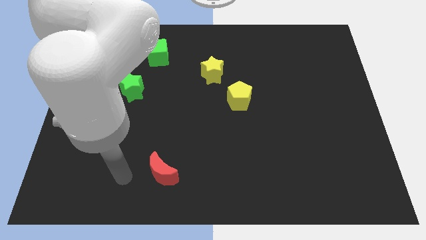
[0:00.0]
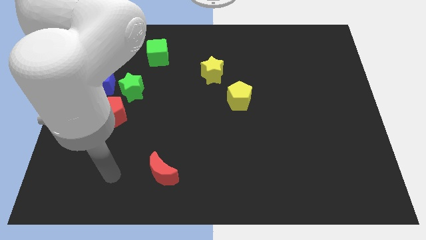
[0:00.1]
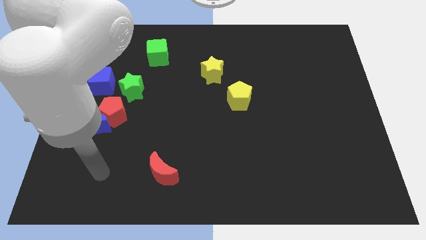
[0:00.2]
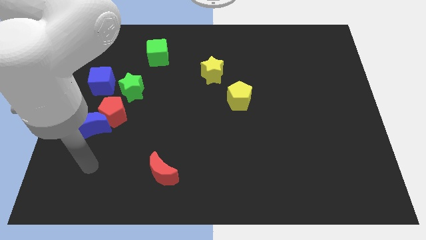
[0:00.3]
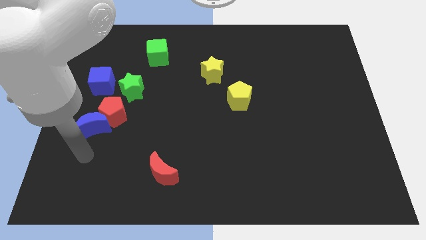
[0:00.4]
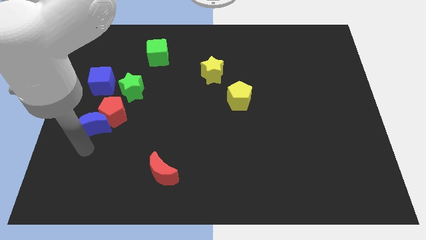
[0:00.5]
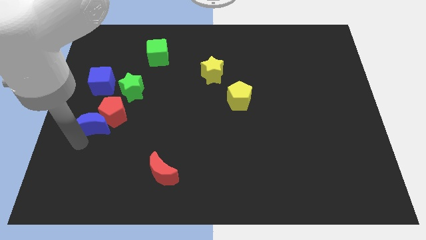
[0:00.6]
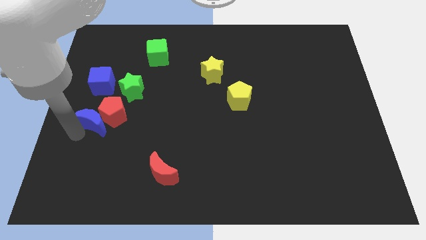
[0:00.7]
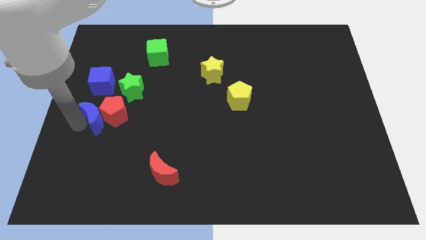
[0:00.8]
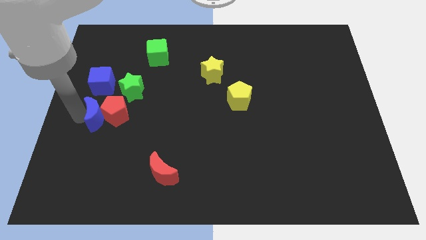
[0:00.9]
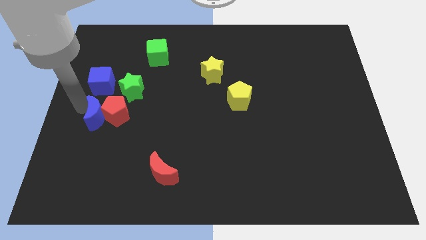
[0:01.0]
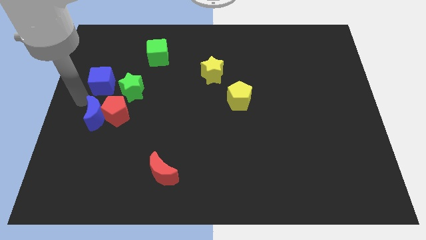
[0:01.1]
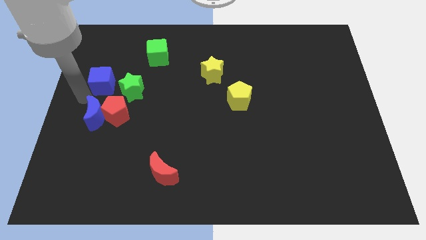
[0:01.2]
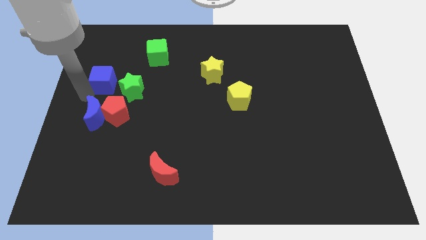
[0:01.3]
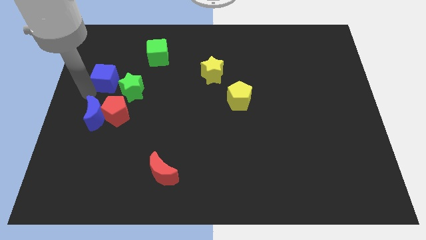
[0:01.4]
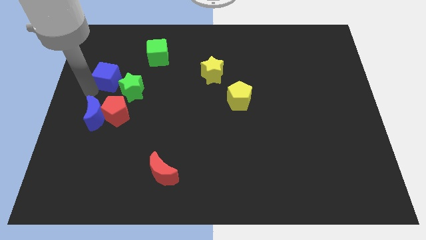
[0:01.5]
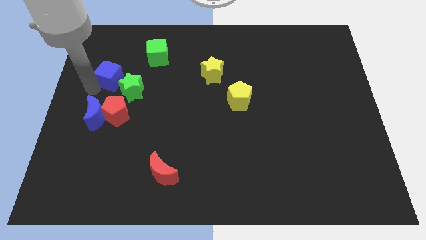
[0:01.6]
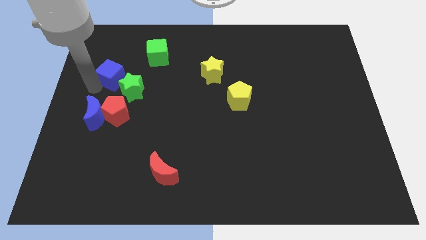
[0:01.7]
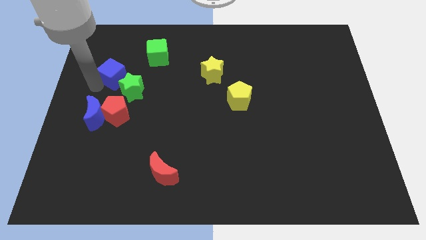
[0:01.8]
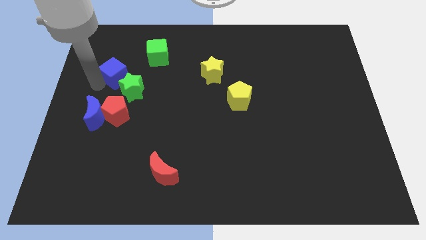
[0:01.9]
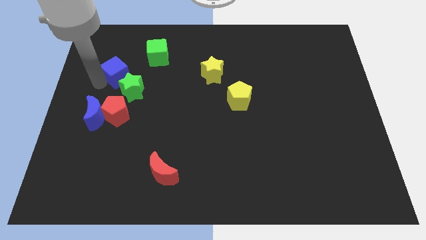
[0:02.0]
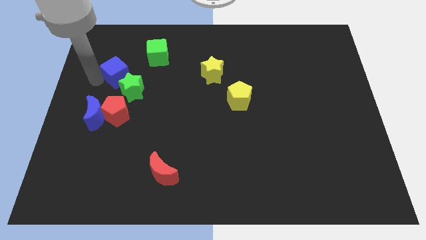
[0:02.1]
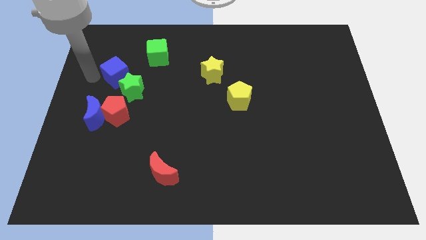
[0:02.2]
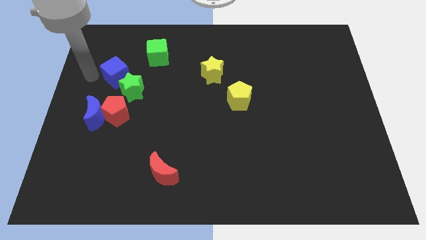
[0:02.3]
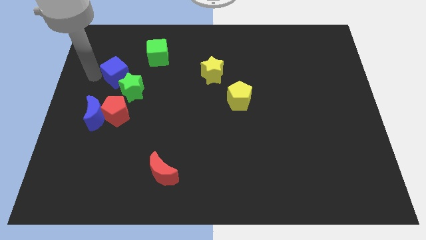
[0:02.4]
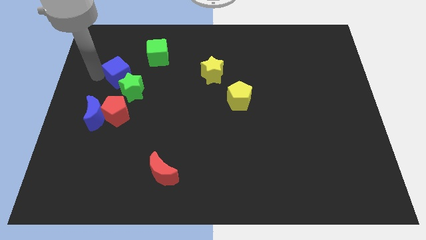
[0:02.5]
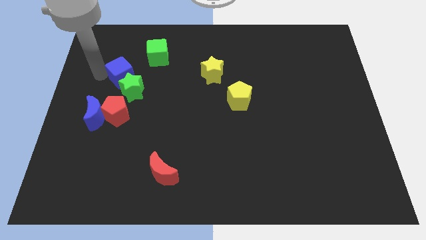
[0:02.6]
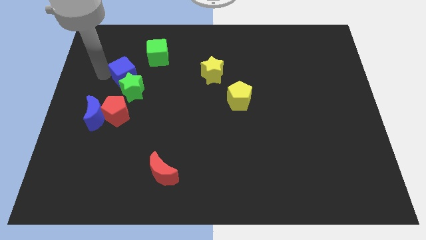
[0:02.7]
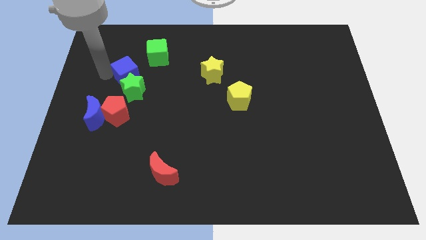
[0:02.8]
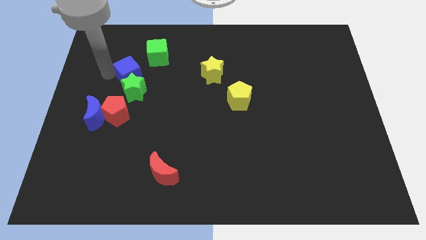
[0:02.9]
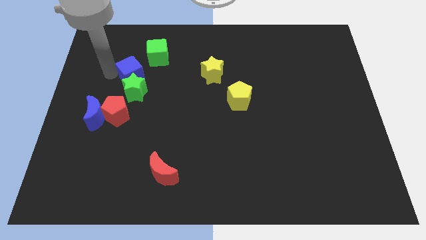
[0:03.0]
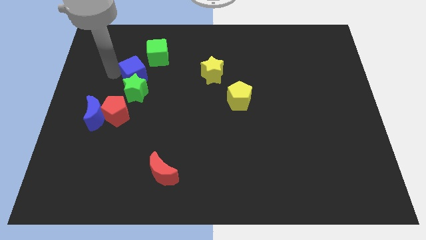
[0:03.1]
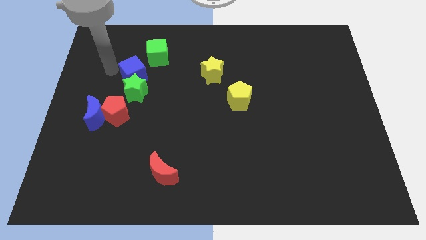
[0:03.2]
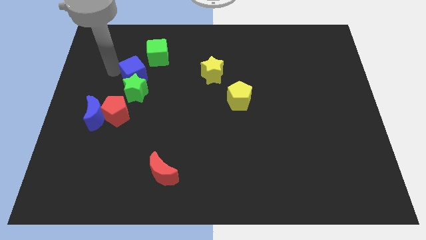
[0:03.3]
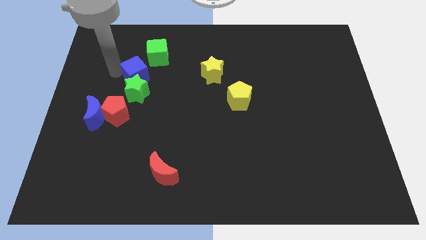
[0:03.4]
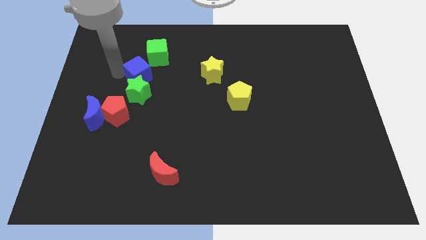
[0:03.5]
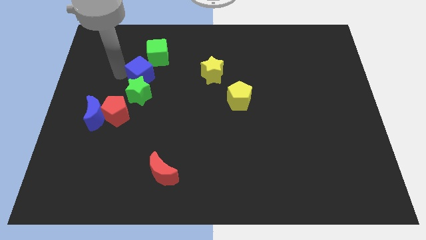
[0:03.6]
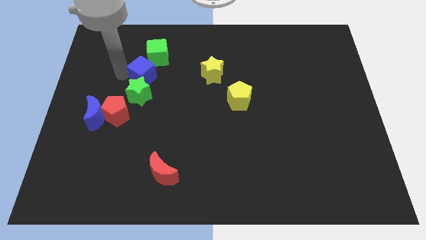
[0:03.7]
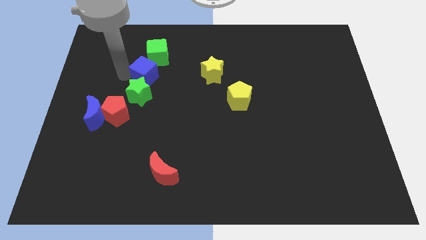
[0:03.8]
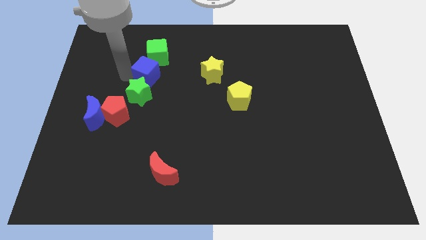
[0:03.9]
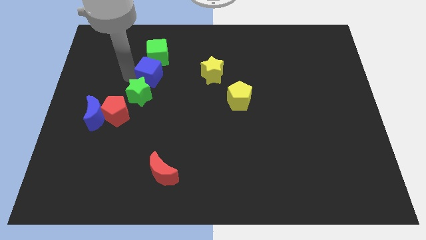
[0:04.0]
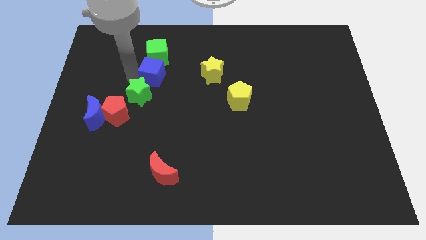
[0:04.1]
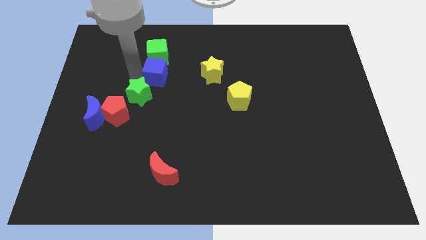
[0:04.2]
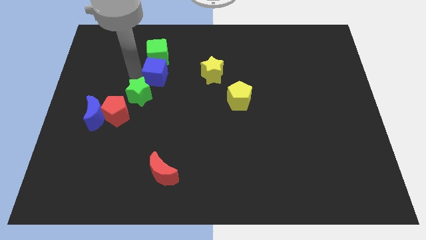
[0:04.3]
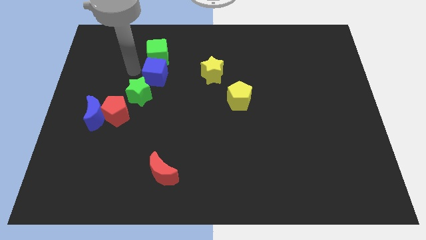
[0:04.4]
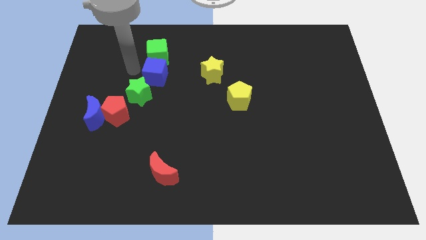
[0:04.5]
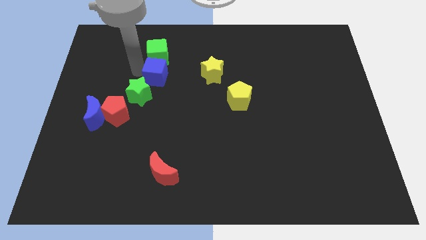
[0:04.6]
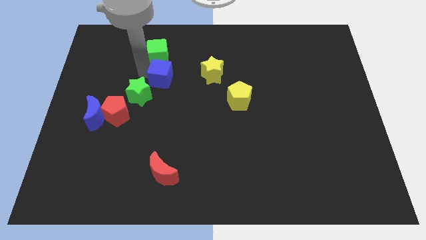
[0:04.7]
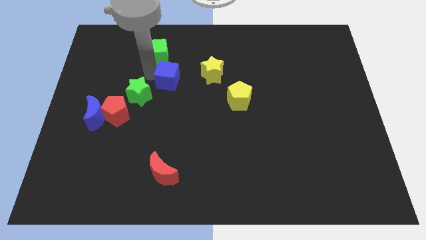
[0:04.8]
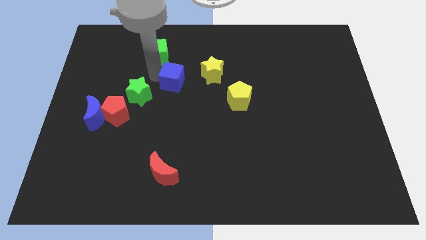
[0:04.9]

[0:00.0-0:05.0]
put the blue cube to the center

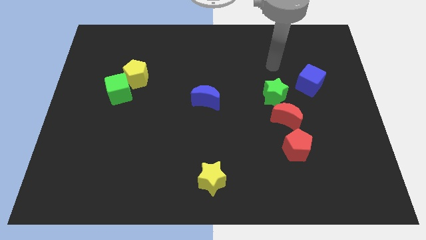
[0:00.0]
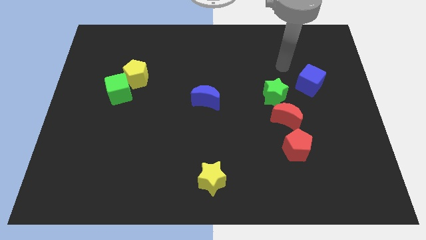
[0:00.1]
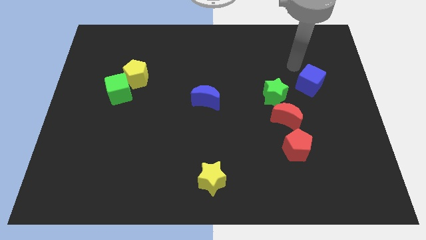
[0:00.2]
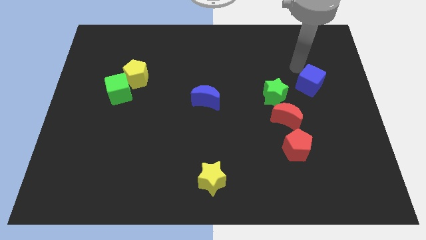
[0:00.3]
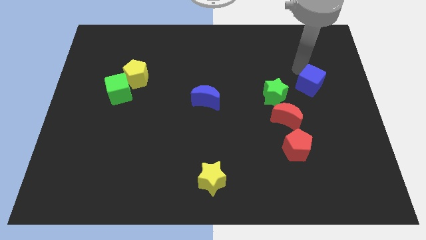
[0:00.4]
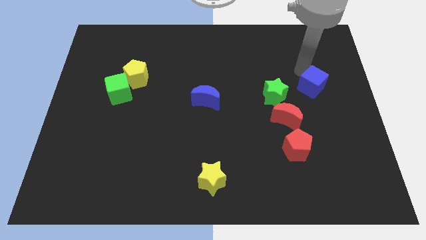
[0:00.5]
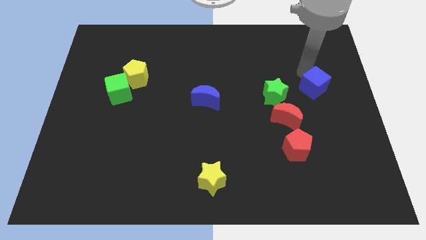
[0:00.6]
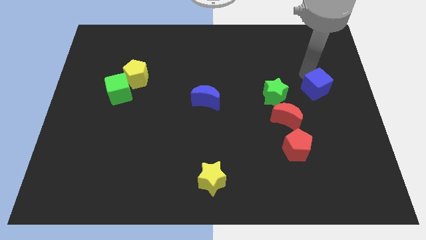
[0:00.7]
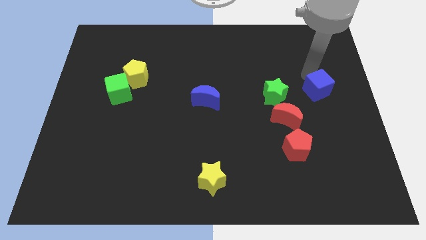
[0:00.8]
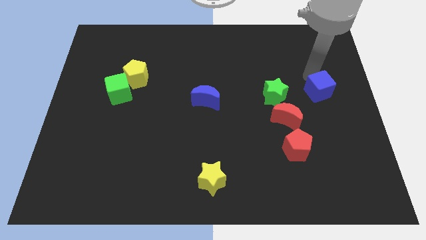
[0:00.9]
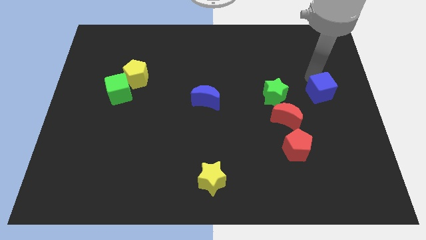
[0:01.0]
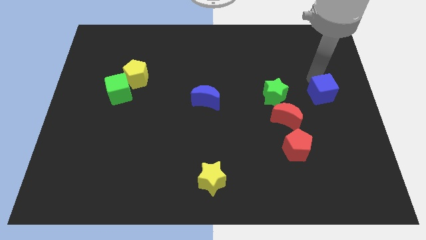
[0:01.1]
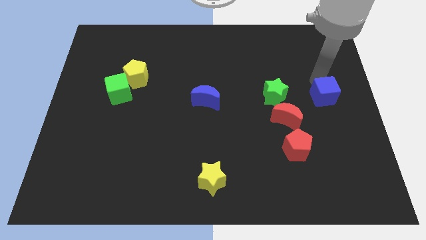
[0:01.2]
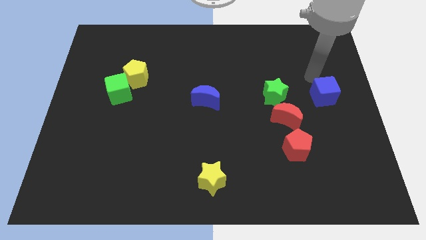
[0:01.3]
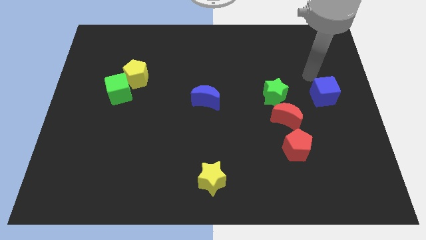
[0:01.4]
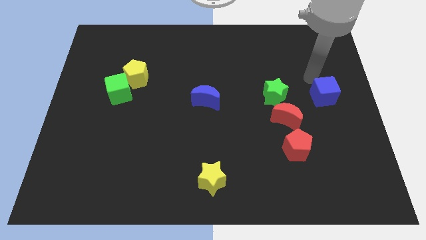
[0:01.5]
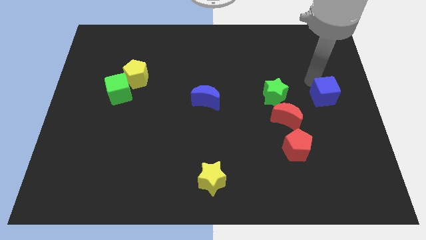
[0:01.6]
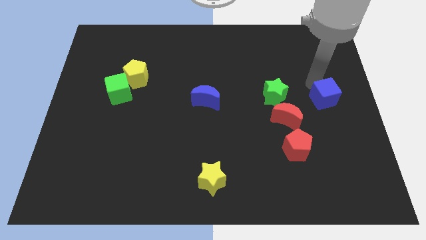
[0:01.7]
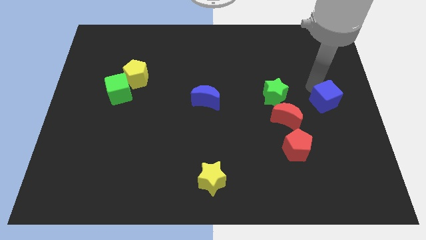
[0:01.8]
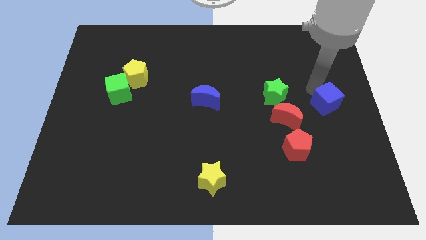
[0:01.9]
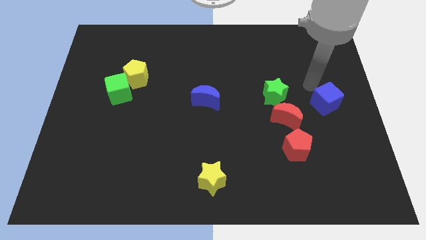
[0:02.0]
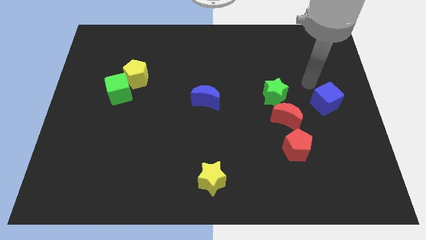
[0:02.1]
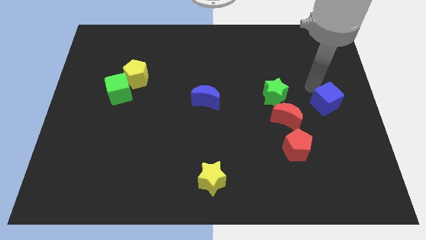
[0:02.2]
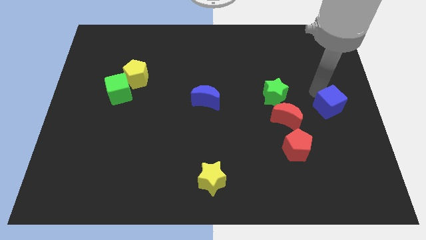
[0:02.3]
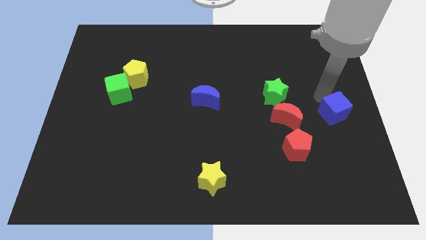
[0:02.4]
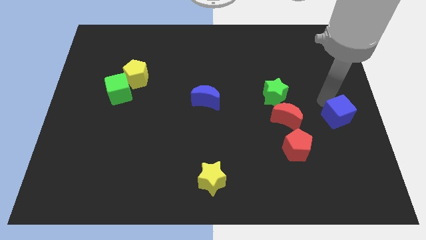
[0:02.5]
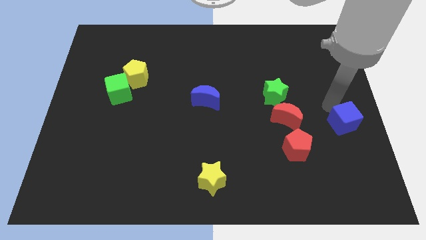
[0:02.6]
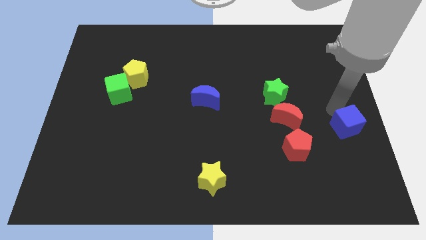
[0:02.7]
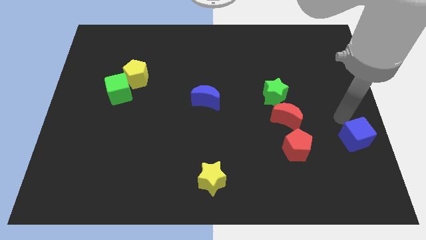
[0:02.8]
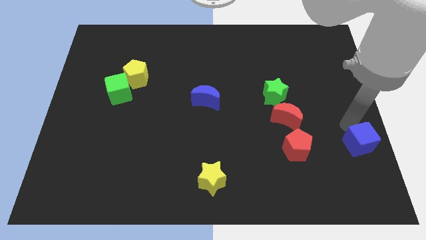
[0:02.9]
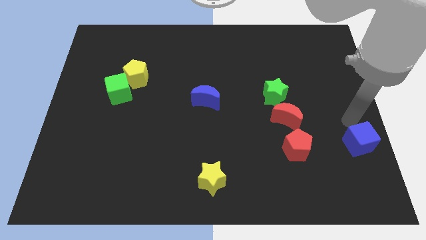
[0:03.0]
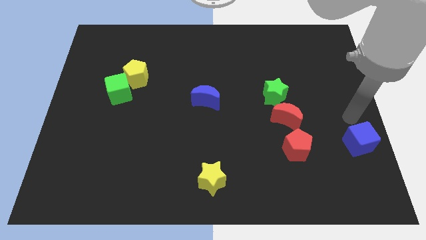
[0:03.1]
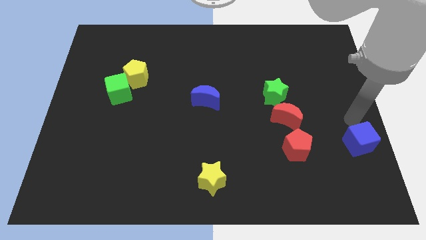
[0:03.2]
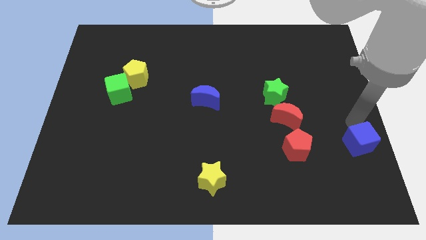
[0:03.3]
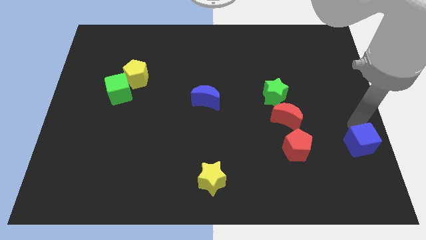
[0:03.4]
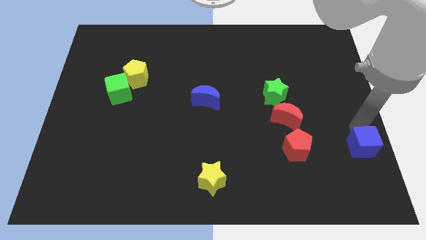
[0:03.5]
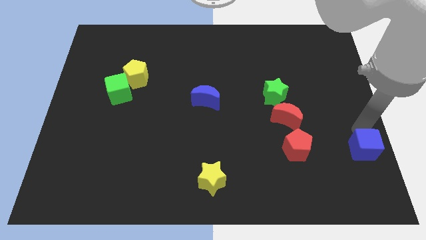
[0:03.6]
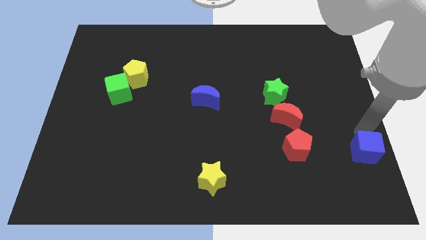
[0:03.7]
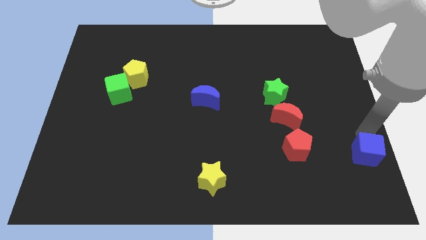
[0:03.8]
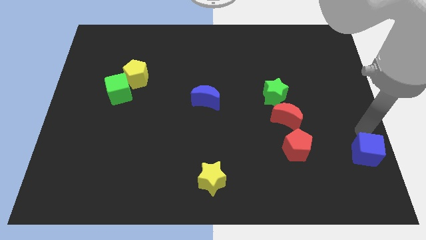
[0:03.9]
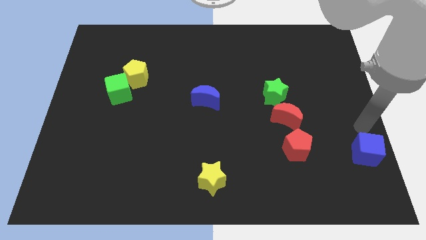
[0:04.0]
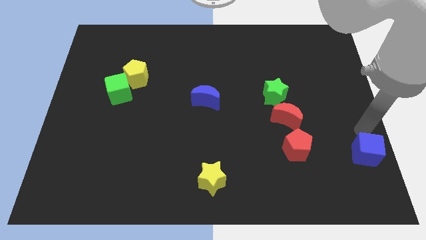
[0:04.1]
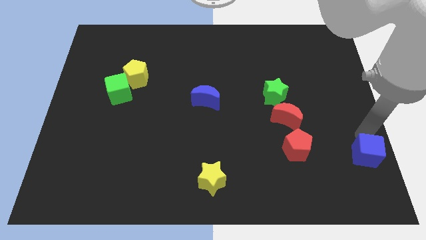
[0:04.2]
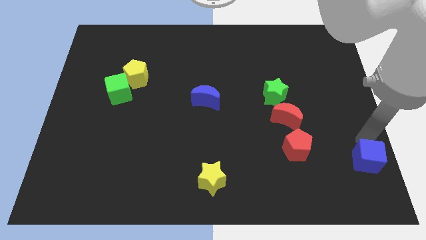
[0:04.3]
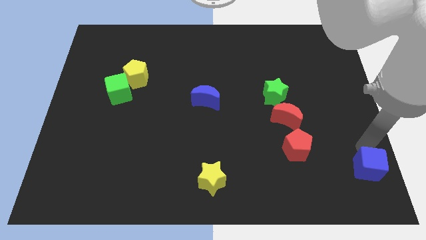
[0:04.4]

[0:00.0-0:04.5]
move the blue cube to the lower right corner
